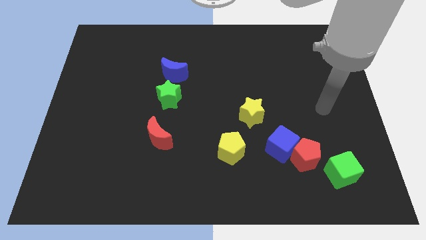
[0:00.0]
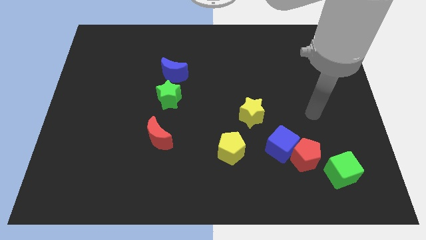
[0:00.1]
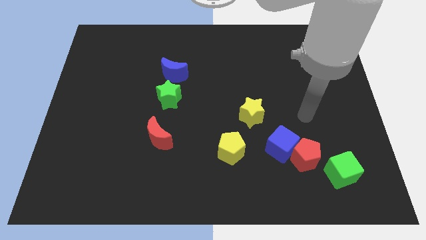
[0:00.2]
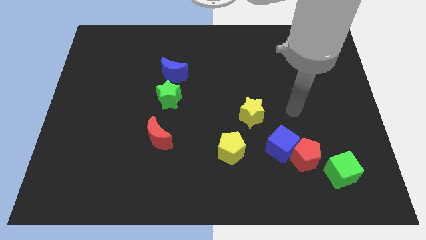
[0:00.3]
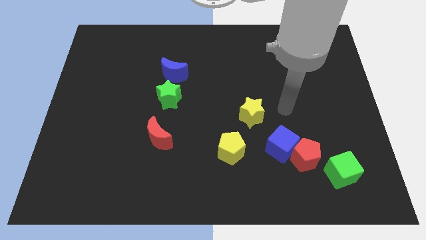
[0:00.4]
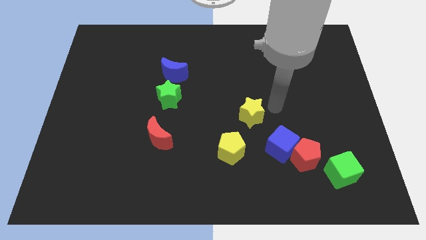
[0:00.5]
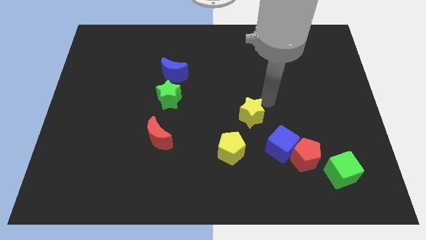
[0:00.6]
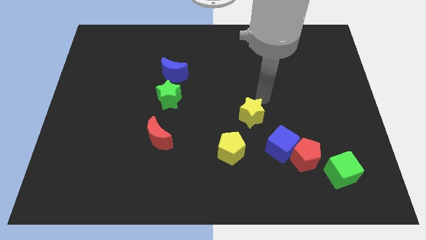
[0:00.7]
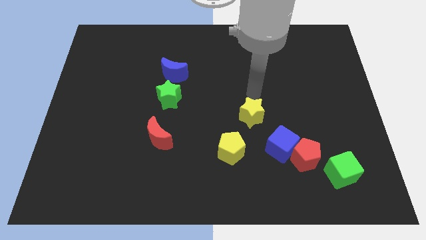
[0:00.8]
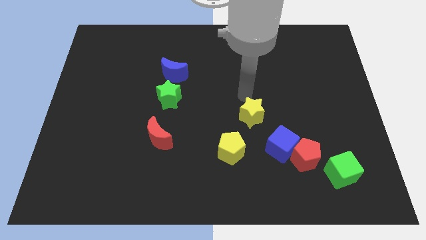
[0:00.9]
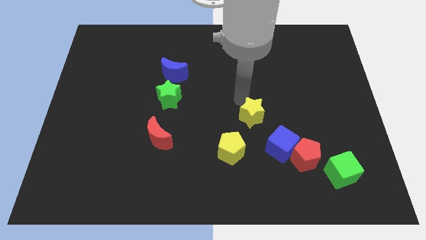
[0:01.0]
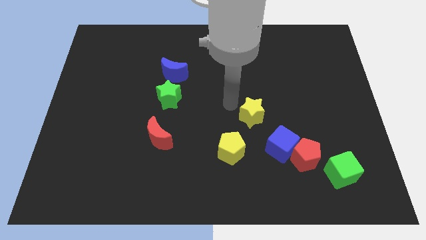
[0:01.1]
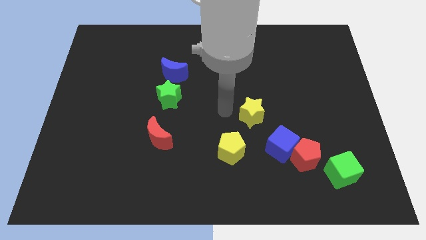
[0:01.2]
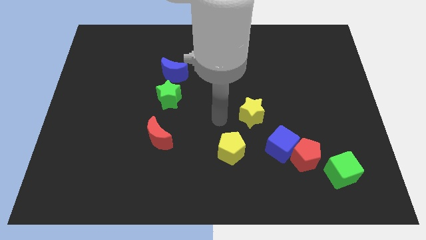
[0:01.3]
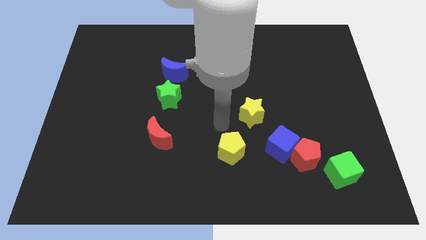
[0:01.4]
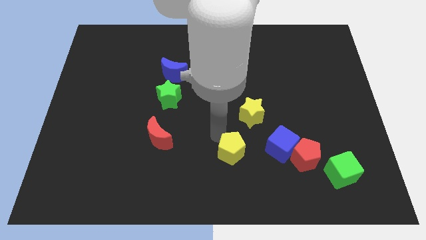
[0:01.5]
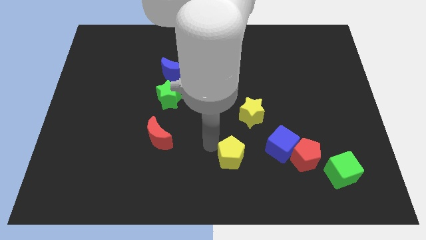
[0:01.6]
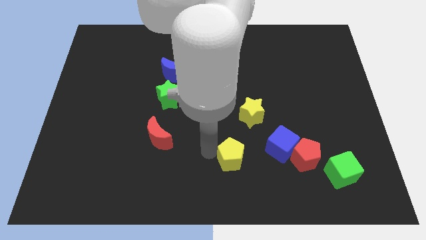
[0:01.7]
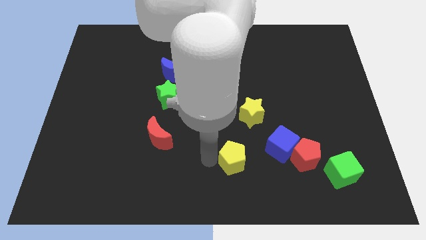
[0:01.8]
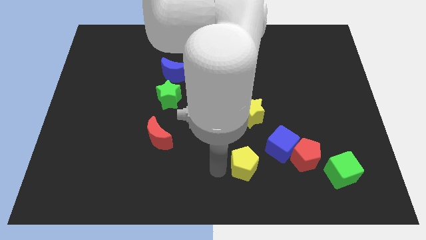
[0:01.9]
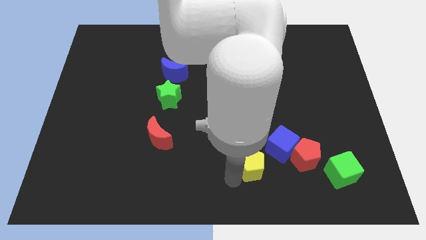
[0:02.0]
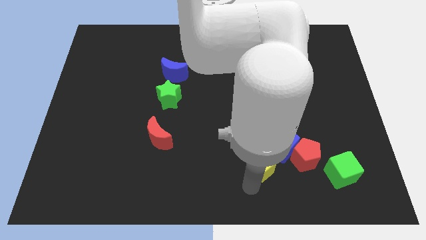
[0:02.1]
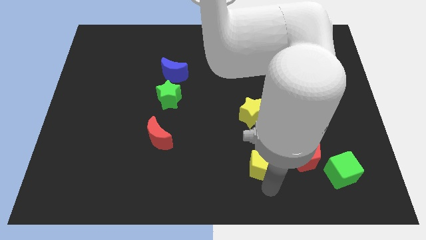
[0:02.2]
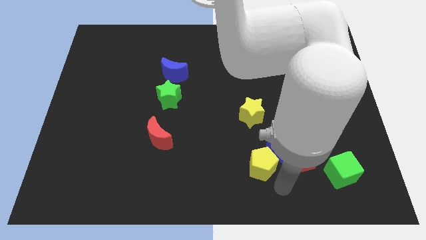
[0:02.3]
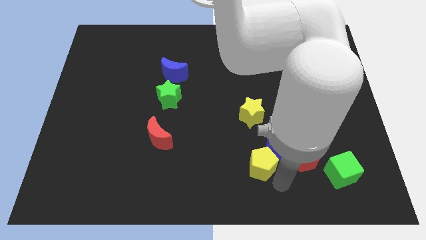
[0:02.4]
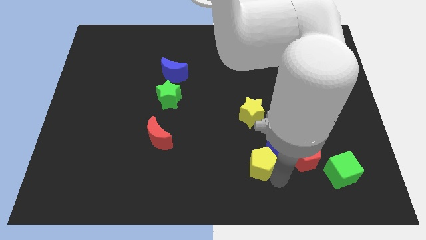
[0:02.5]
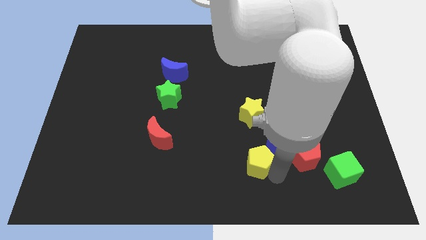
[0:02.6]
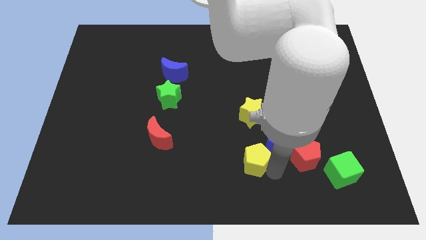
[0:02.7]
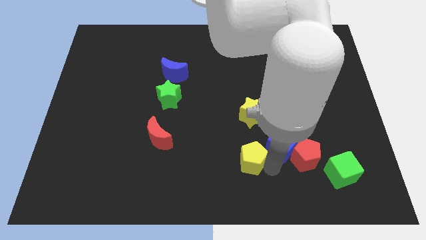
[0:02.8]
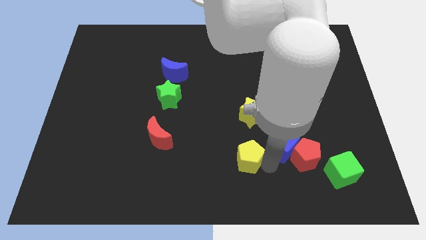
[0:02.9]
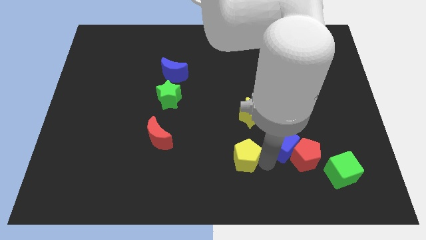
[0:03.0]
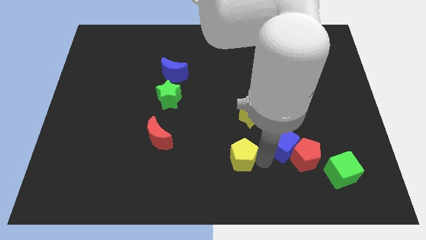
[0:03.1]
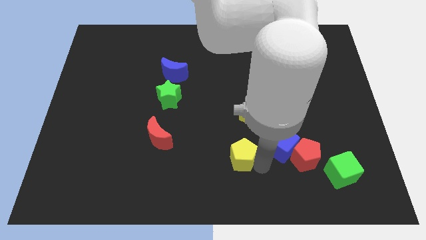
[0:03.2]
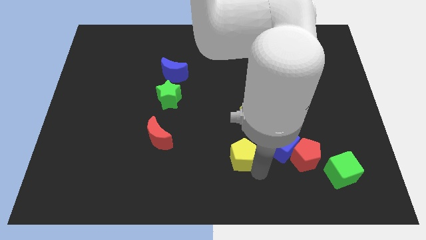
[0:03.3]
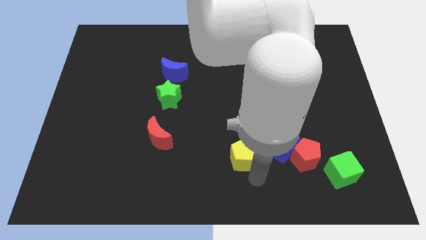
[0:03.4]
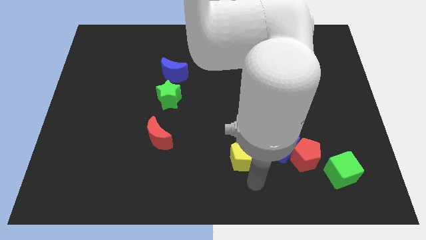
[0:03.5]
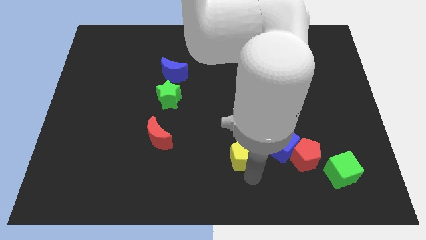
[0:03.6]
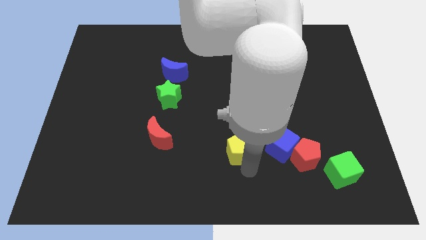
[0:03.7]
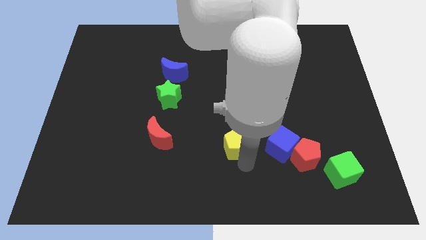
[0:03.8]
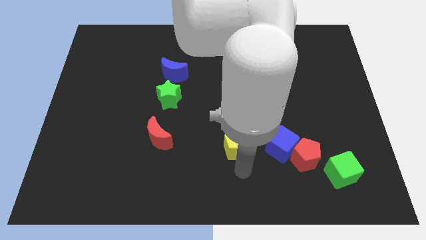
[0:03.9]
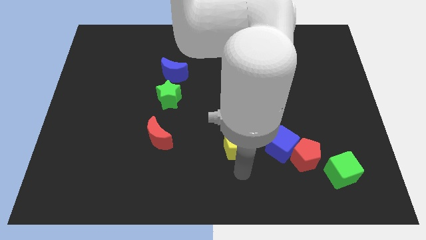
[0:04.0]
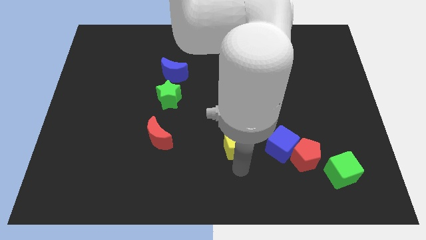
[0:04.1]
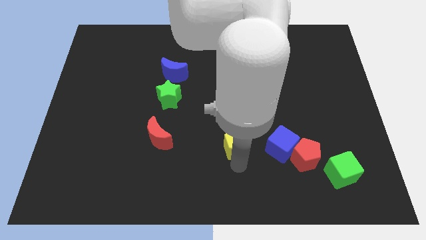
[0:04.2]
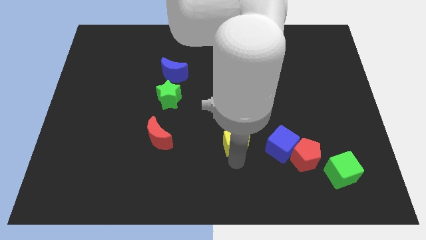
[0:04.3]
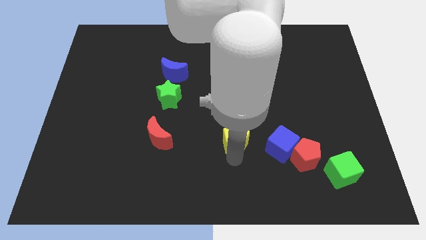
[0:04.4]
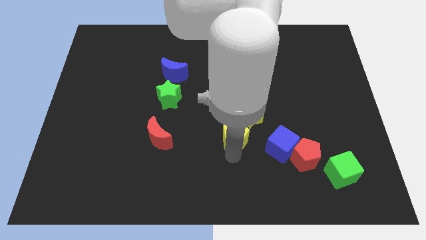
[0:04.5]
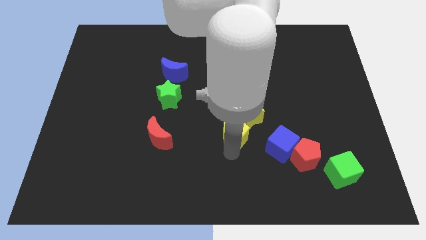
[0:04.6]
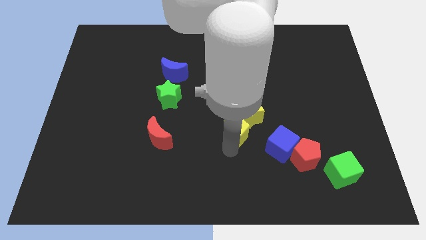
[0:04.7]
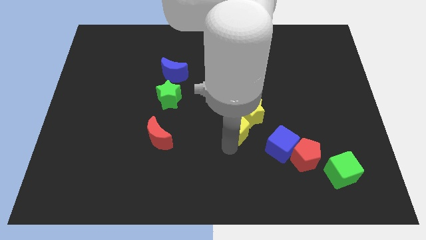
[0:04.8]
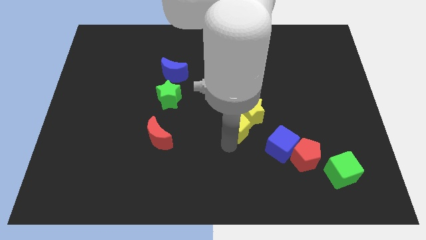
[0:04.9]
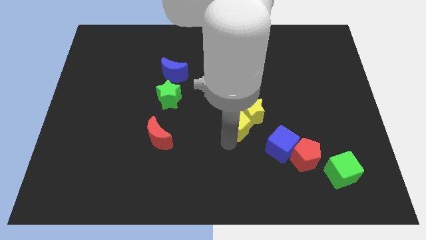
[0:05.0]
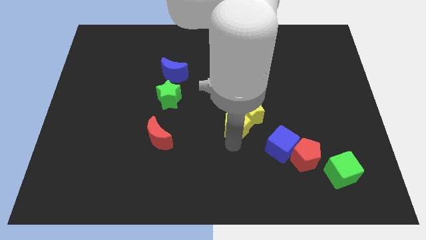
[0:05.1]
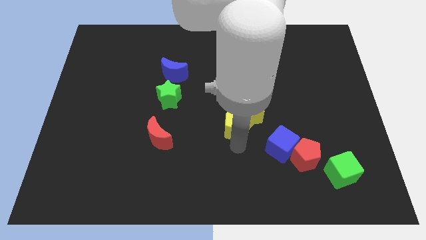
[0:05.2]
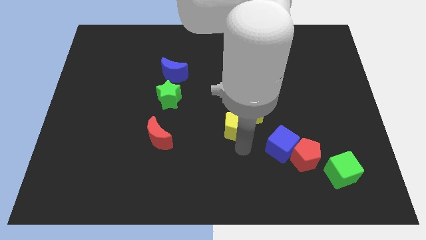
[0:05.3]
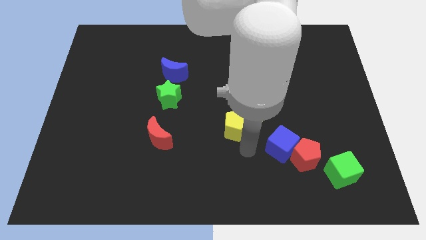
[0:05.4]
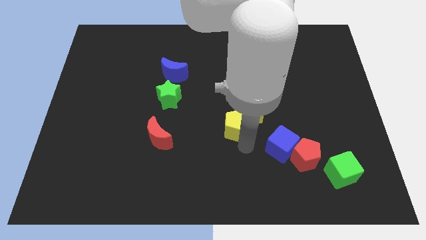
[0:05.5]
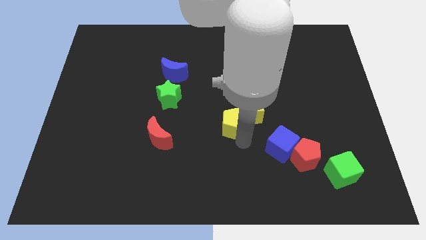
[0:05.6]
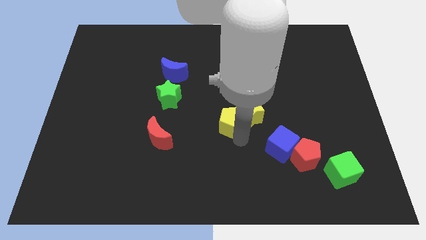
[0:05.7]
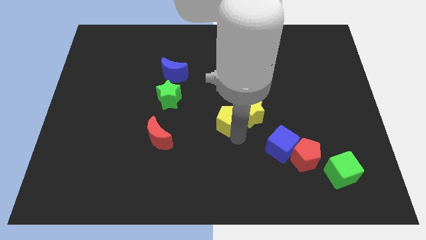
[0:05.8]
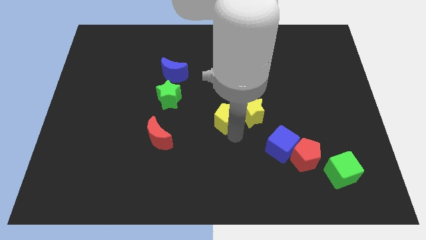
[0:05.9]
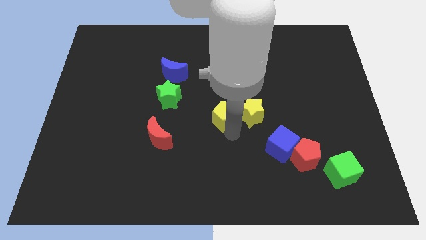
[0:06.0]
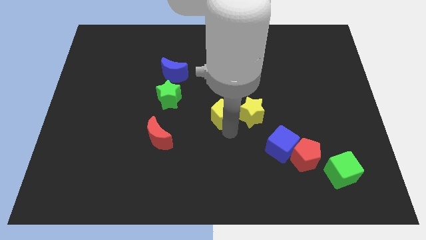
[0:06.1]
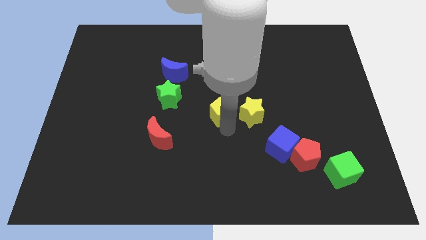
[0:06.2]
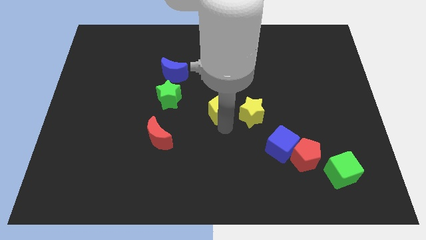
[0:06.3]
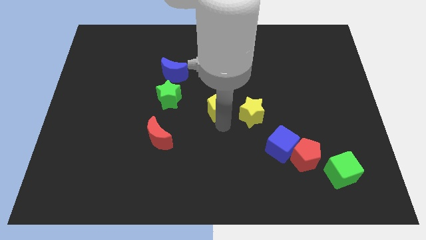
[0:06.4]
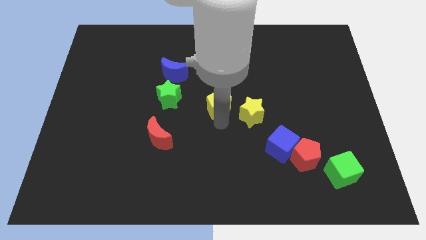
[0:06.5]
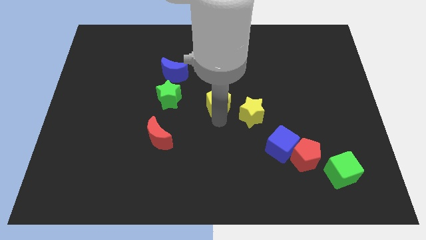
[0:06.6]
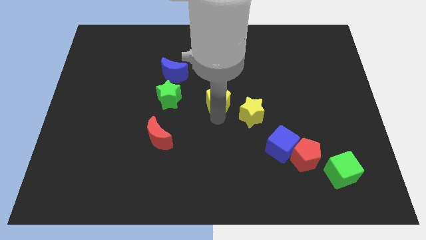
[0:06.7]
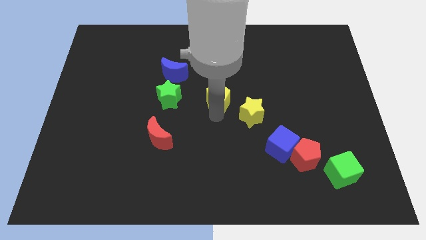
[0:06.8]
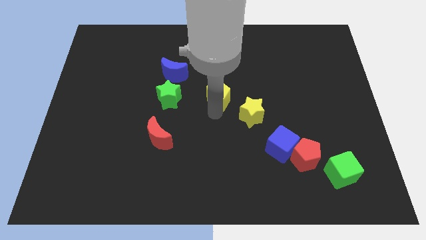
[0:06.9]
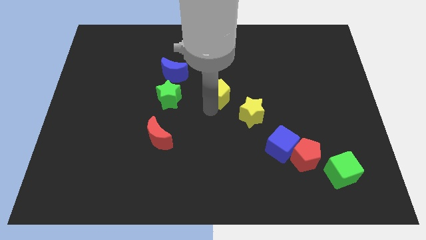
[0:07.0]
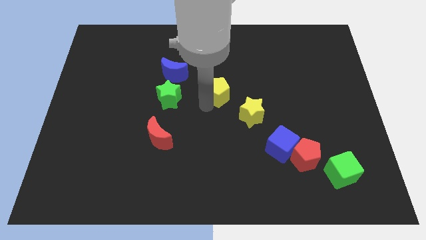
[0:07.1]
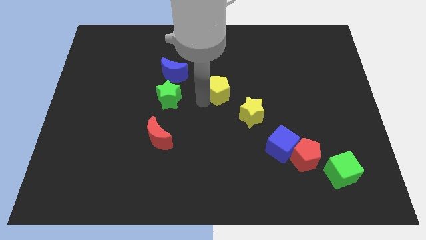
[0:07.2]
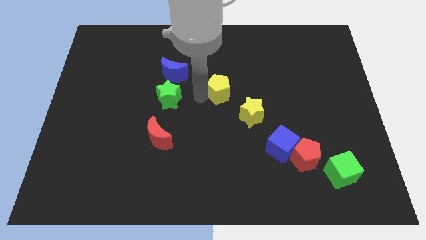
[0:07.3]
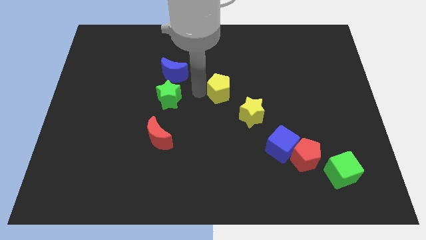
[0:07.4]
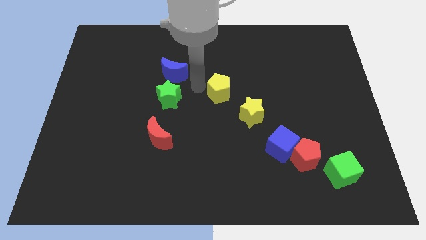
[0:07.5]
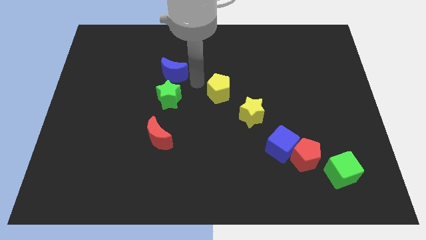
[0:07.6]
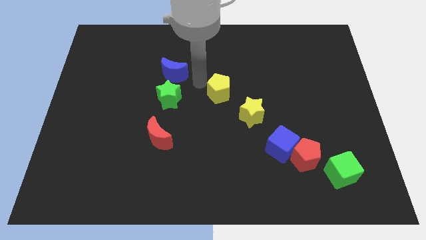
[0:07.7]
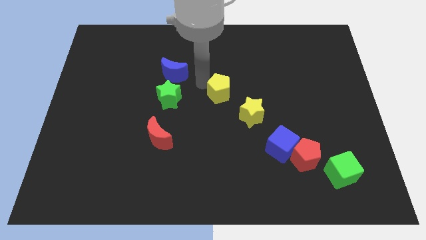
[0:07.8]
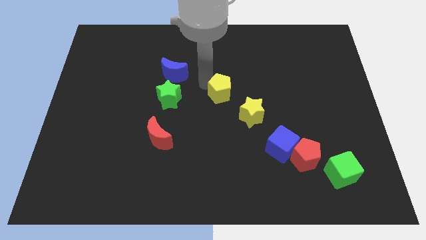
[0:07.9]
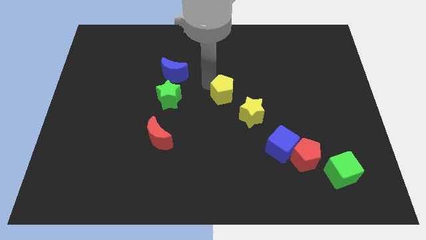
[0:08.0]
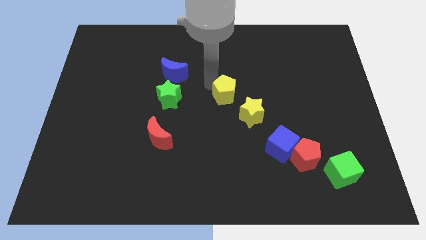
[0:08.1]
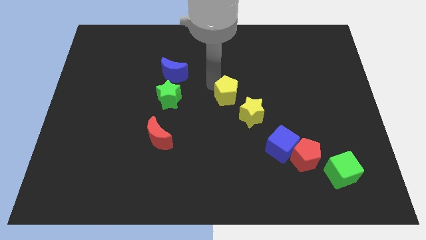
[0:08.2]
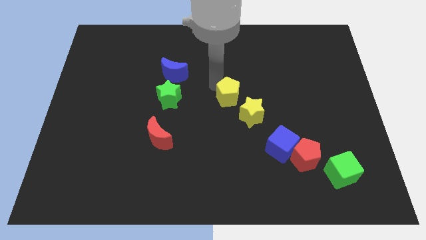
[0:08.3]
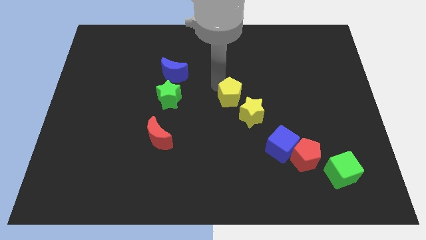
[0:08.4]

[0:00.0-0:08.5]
push the yellow pentagon to the top of the yellow star
